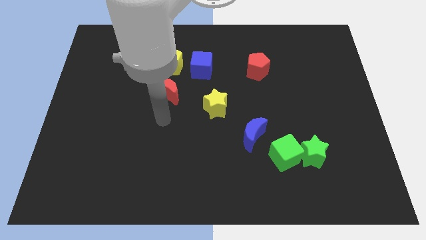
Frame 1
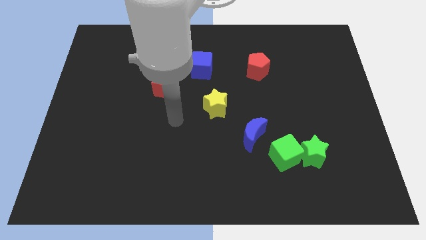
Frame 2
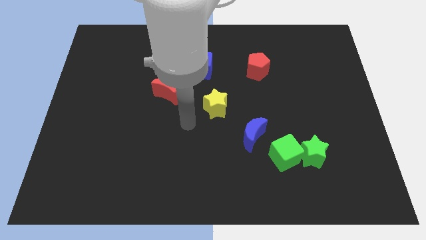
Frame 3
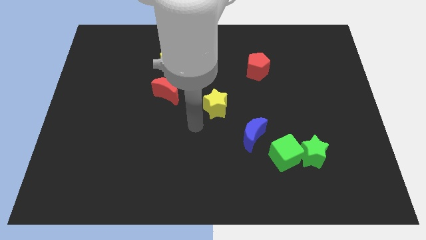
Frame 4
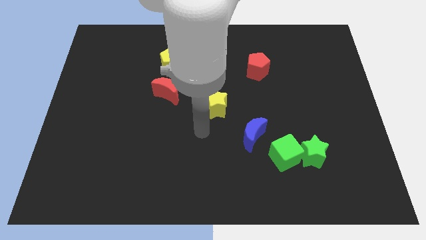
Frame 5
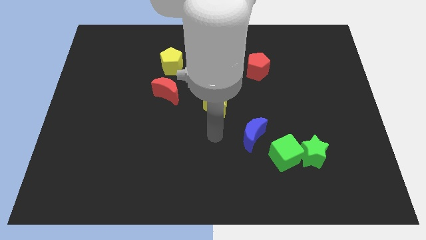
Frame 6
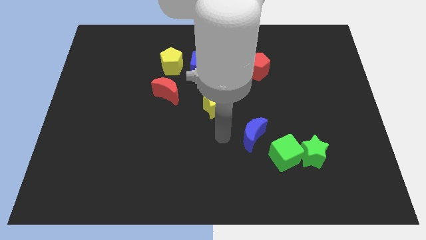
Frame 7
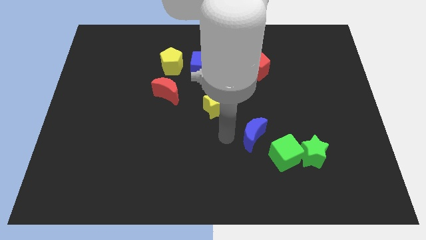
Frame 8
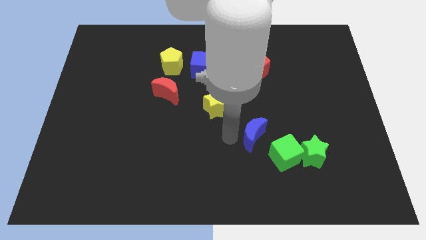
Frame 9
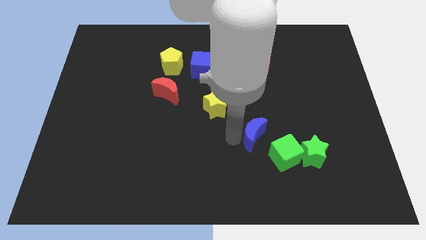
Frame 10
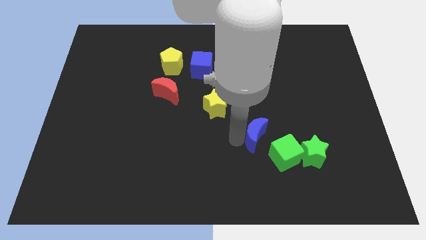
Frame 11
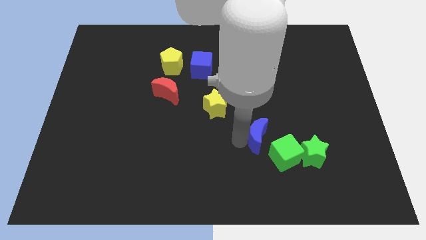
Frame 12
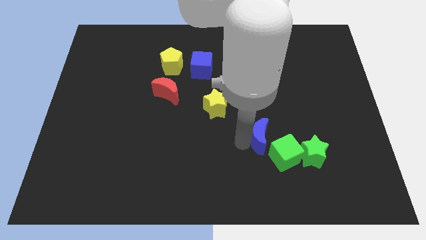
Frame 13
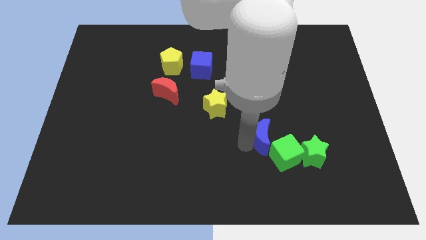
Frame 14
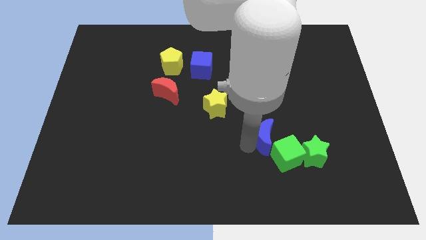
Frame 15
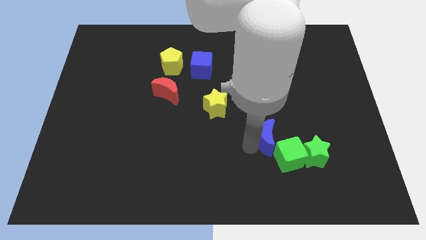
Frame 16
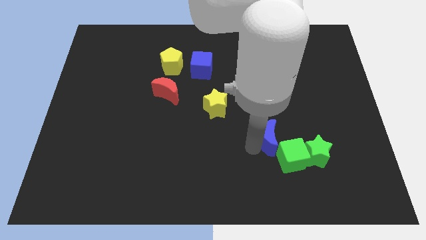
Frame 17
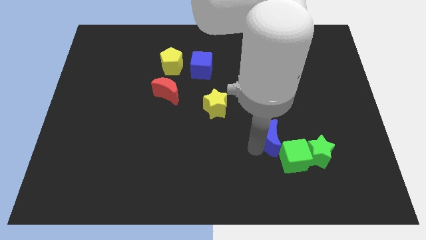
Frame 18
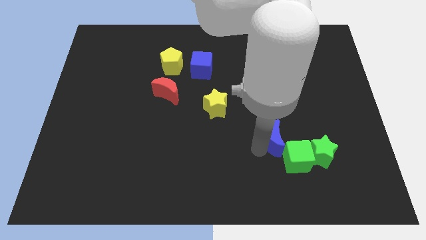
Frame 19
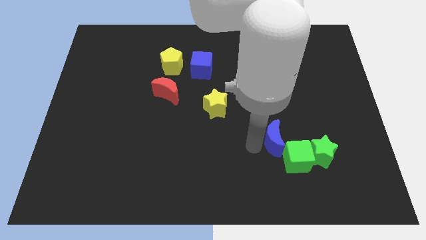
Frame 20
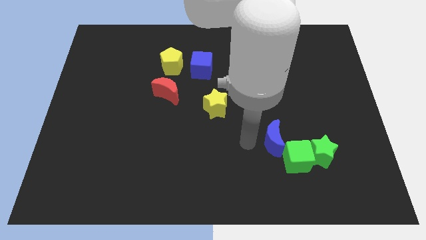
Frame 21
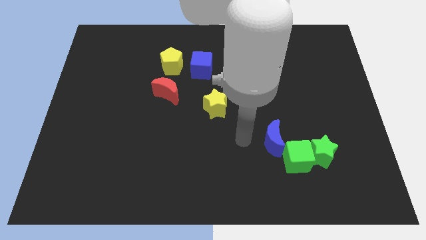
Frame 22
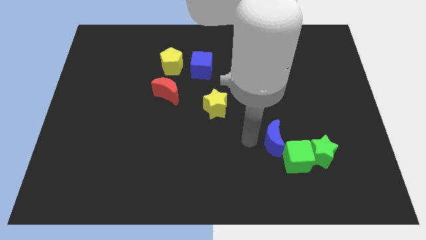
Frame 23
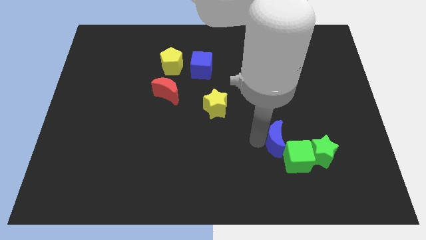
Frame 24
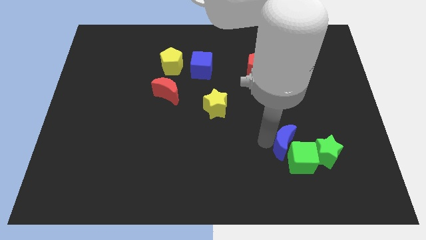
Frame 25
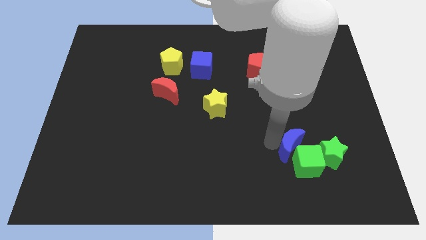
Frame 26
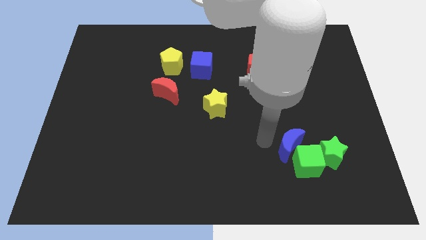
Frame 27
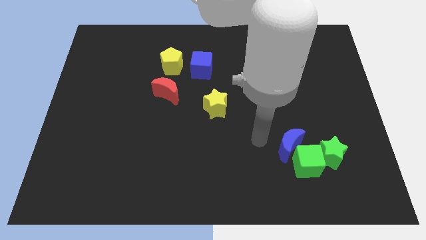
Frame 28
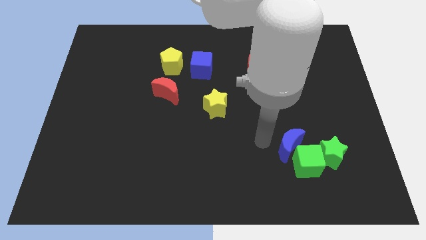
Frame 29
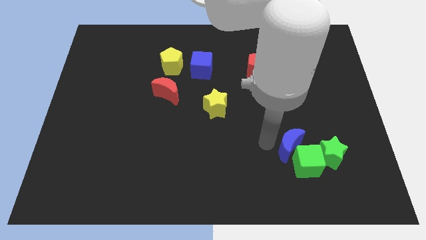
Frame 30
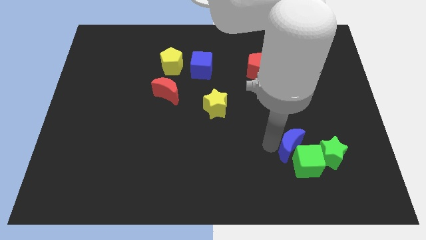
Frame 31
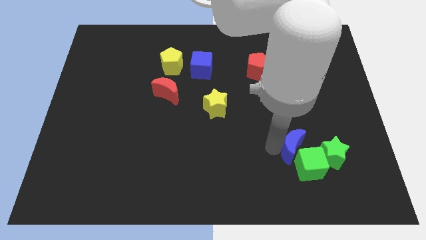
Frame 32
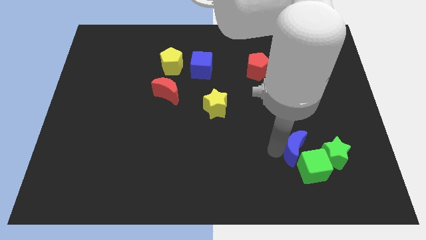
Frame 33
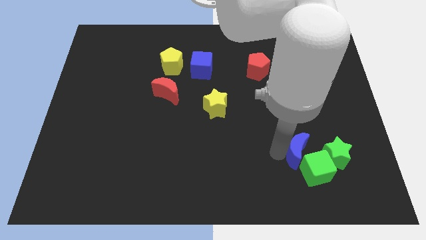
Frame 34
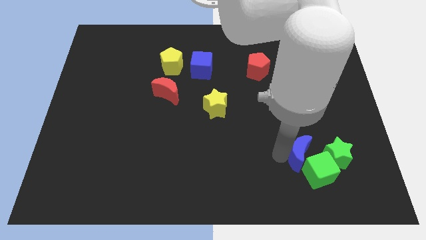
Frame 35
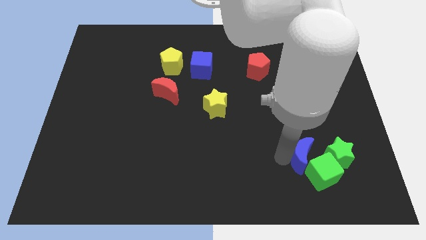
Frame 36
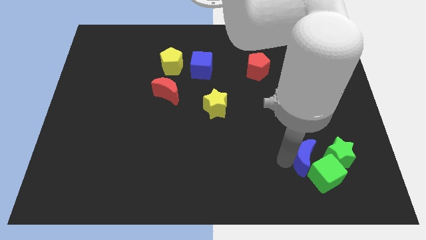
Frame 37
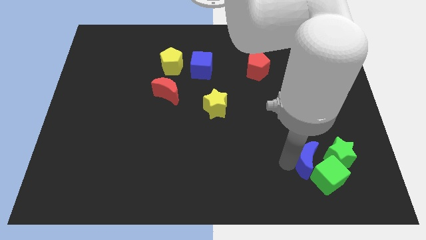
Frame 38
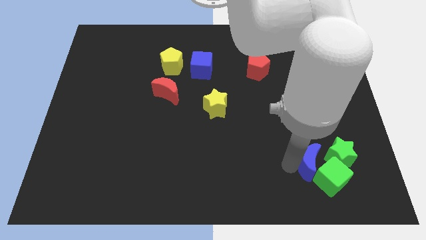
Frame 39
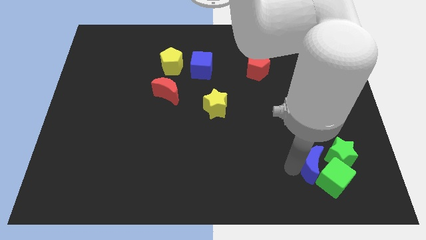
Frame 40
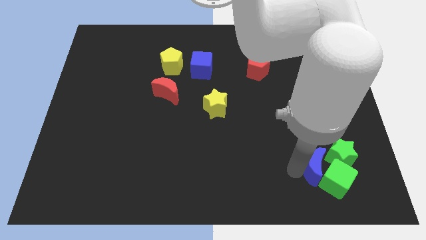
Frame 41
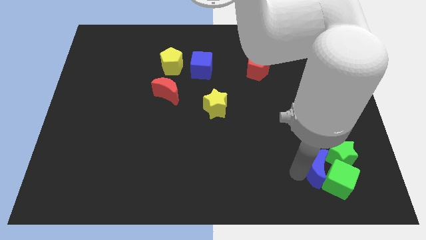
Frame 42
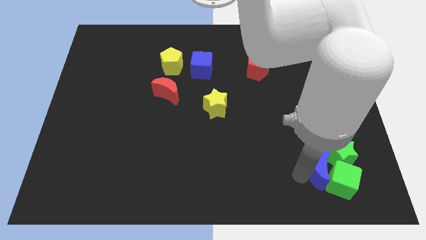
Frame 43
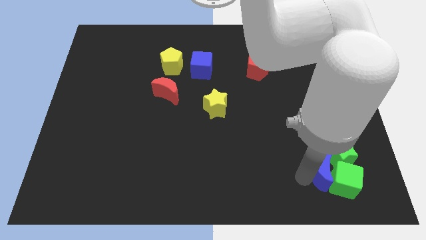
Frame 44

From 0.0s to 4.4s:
put the blue moon close to the green star

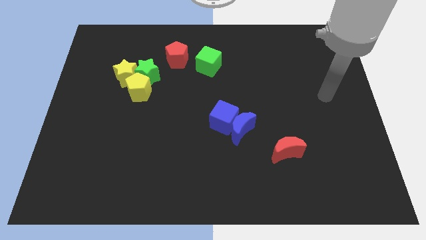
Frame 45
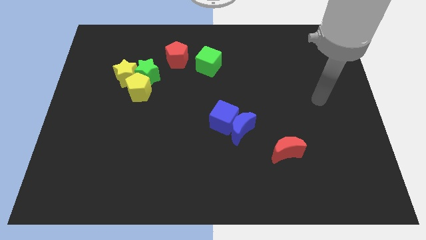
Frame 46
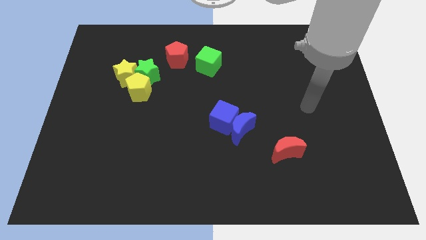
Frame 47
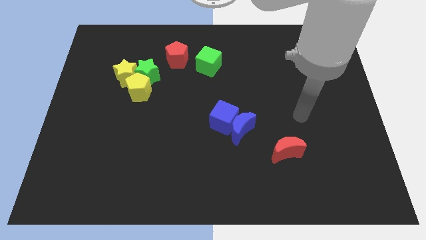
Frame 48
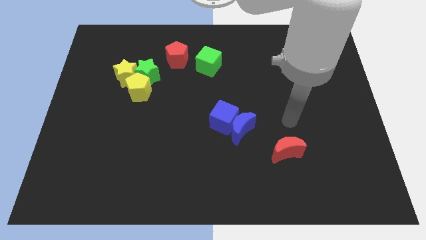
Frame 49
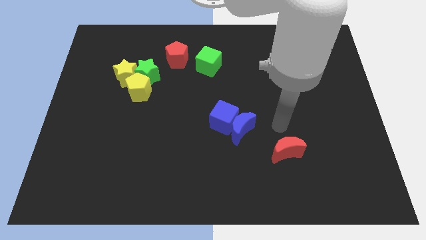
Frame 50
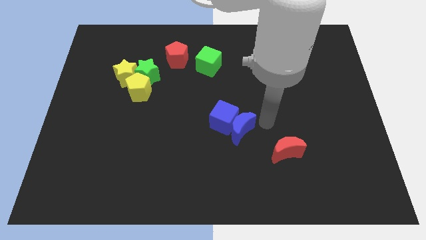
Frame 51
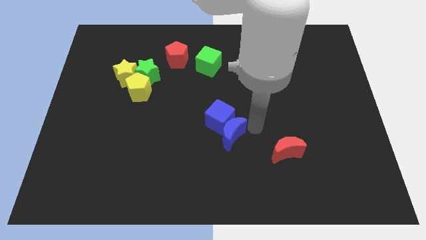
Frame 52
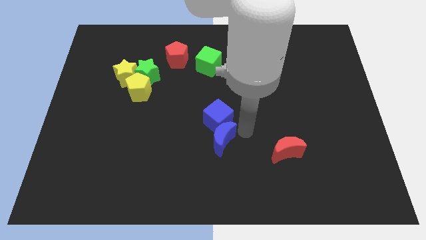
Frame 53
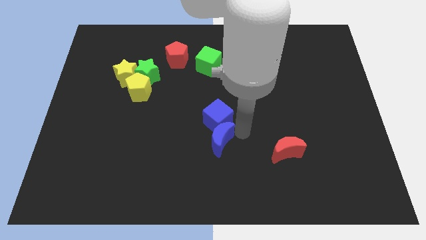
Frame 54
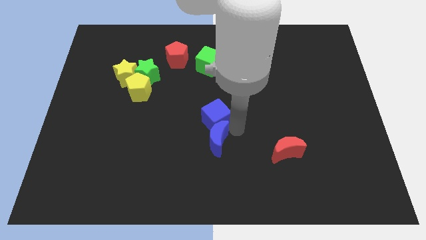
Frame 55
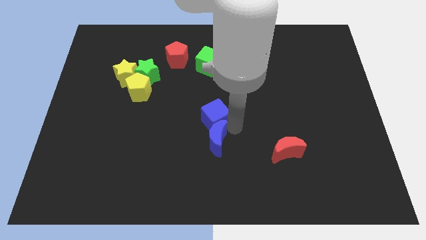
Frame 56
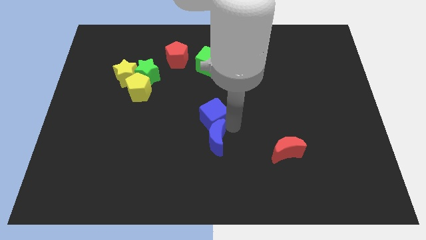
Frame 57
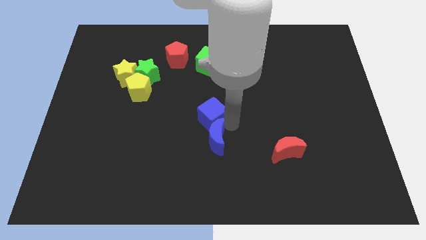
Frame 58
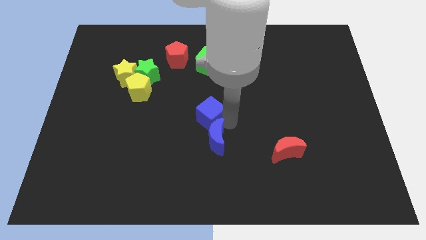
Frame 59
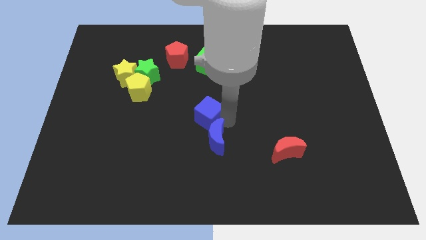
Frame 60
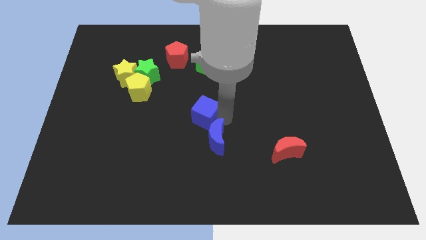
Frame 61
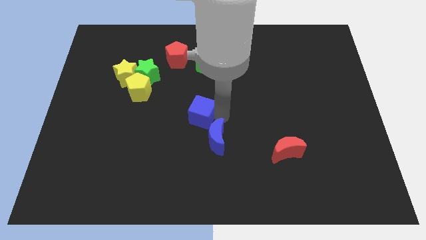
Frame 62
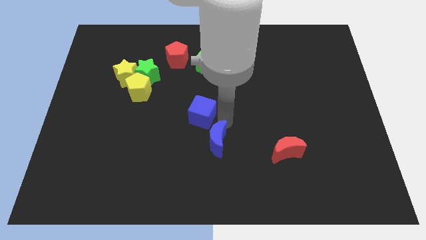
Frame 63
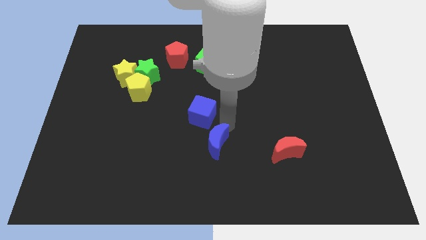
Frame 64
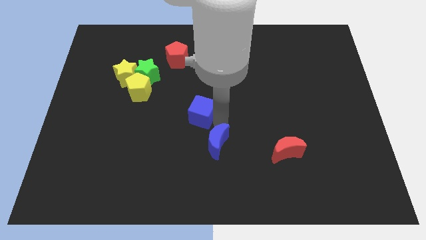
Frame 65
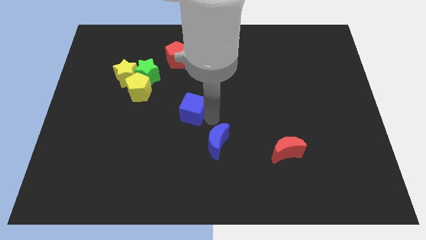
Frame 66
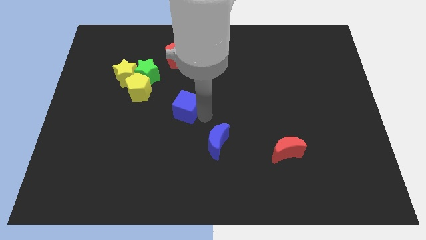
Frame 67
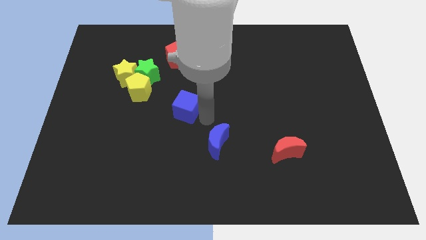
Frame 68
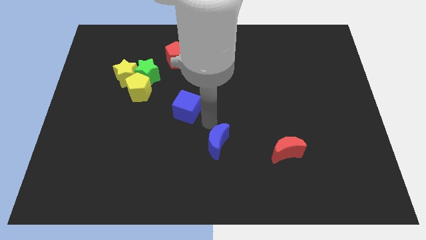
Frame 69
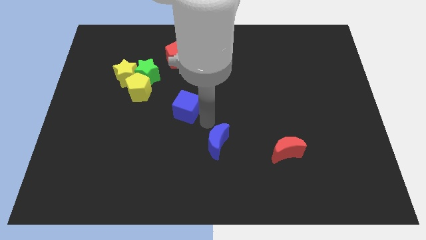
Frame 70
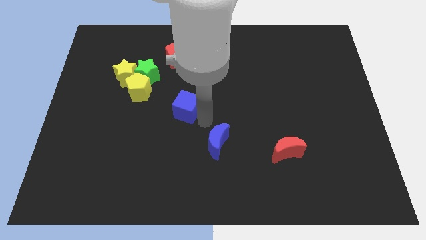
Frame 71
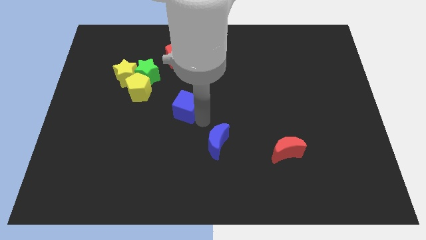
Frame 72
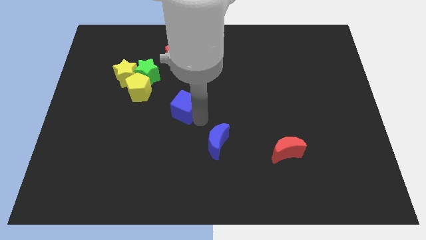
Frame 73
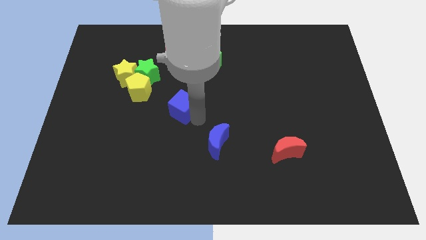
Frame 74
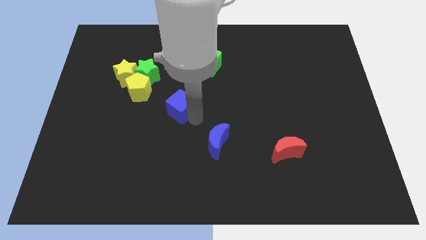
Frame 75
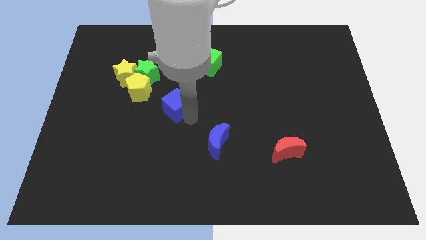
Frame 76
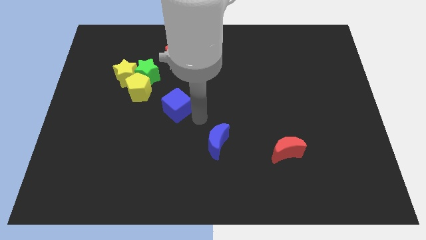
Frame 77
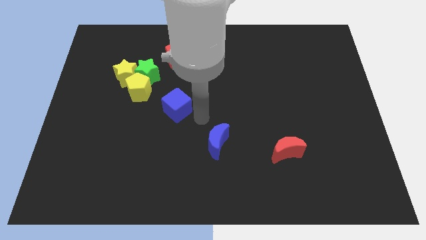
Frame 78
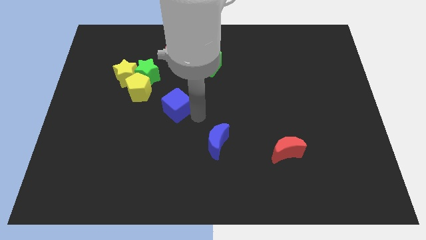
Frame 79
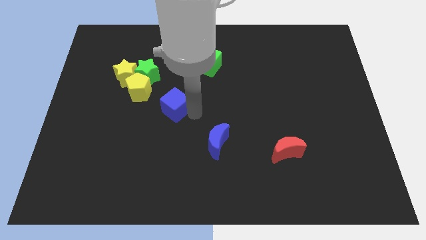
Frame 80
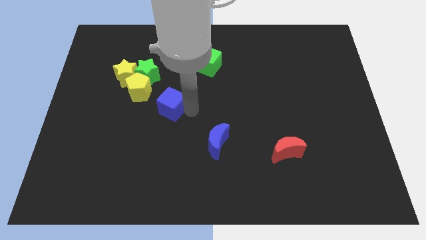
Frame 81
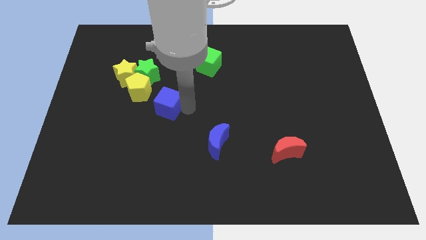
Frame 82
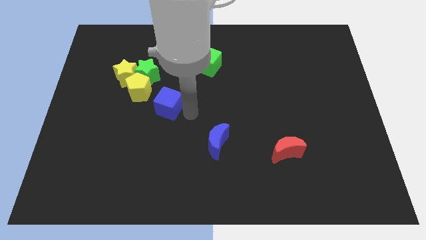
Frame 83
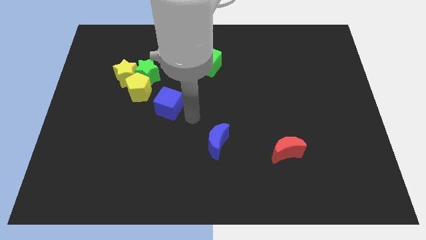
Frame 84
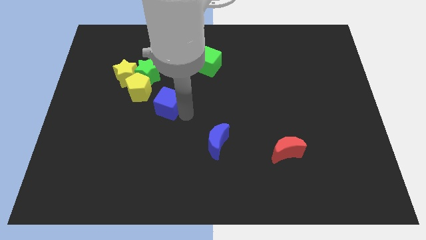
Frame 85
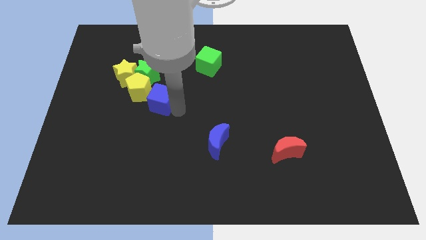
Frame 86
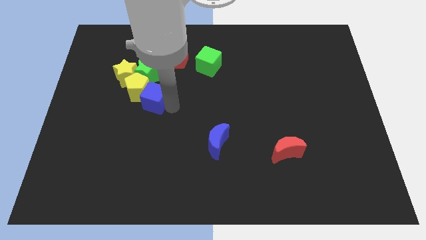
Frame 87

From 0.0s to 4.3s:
move the blue cube towards the yellow pentagon
